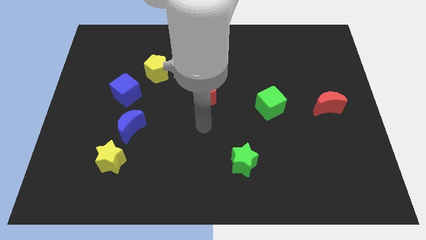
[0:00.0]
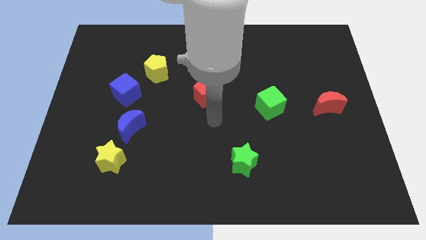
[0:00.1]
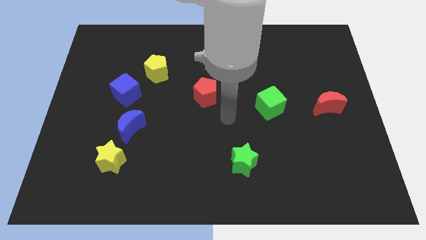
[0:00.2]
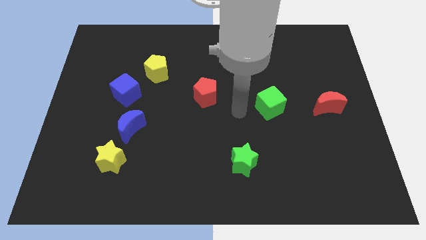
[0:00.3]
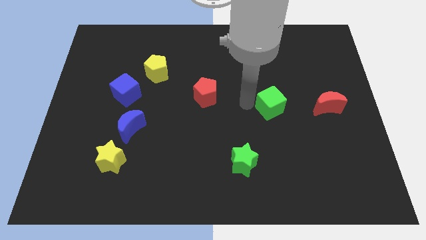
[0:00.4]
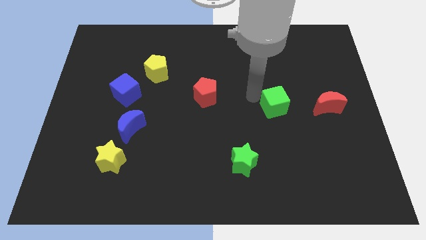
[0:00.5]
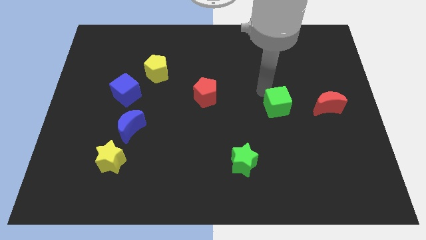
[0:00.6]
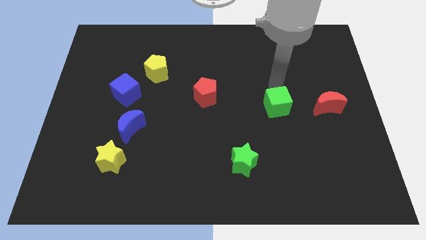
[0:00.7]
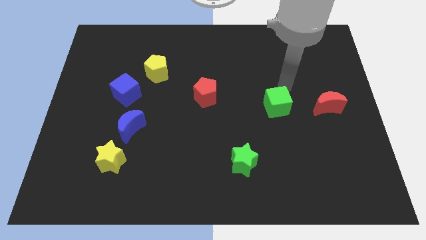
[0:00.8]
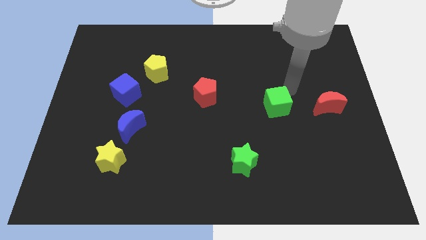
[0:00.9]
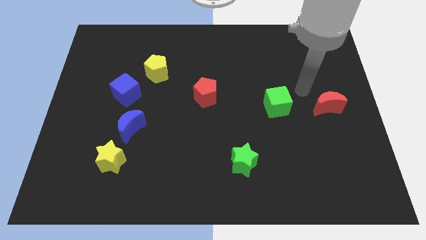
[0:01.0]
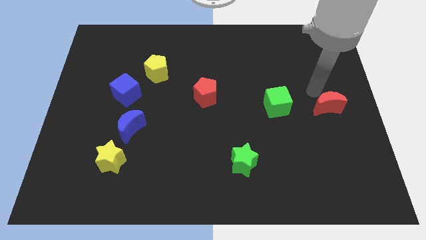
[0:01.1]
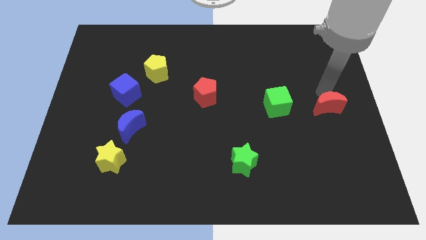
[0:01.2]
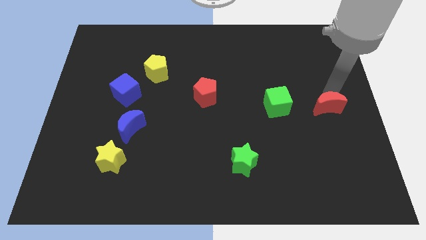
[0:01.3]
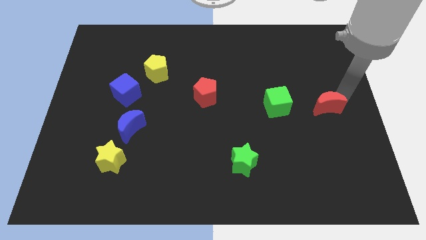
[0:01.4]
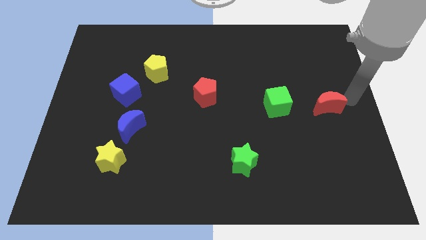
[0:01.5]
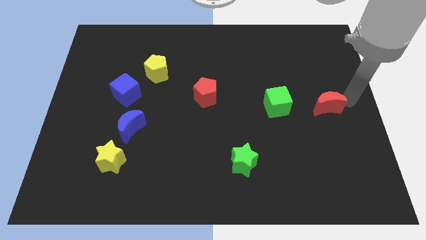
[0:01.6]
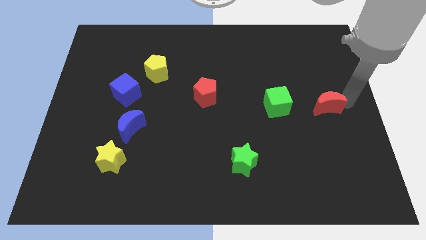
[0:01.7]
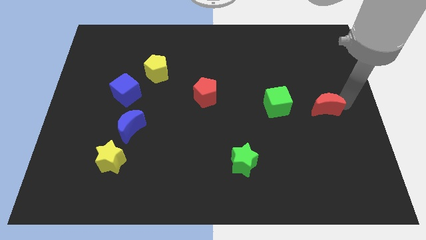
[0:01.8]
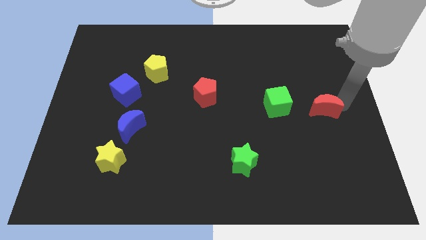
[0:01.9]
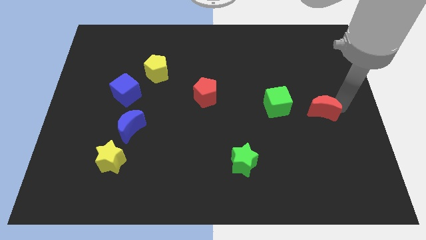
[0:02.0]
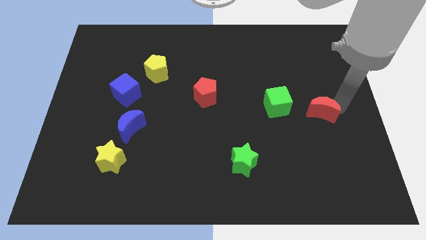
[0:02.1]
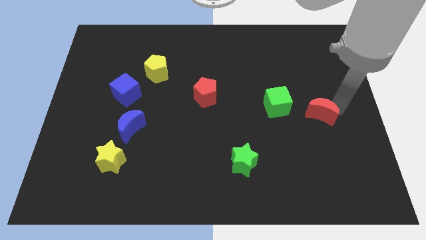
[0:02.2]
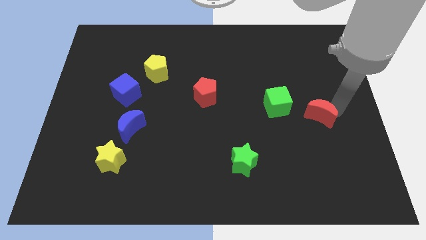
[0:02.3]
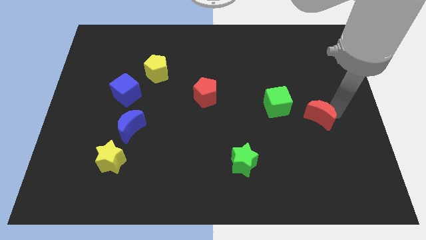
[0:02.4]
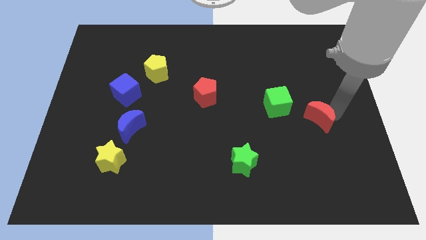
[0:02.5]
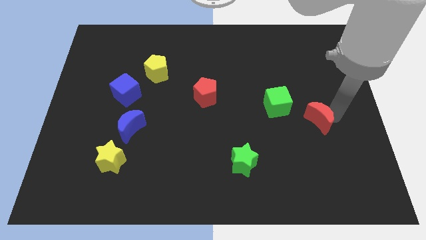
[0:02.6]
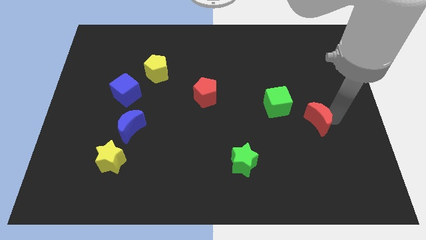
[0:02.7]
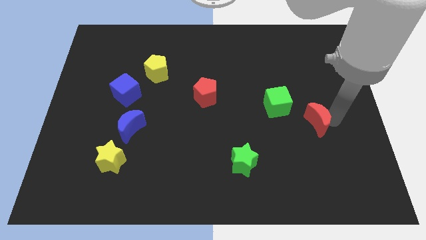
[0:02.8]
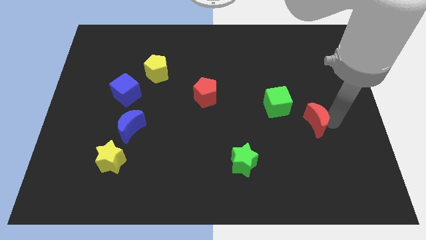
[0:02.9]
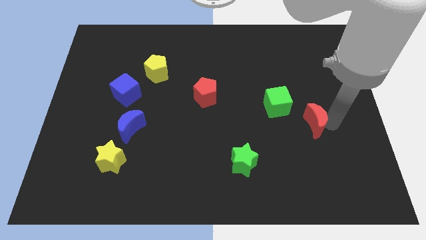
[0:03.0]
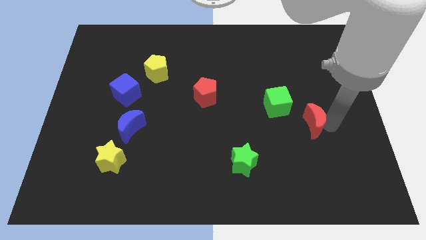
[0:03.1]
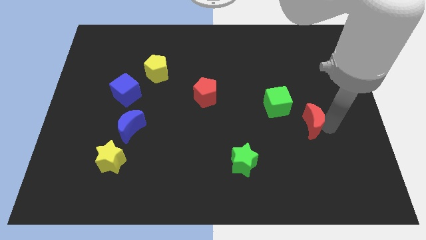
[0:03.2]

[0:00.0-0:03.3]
slide the red moon a bit down and to the left

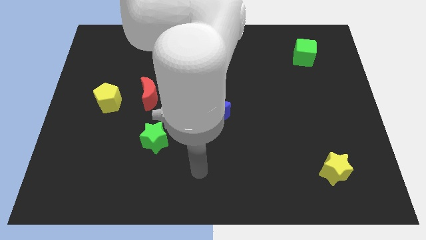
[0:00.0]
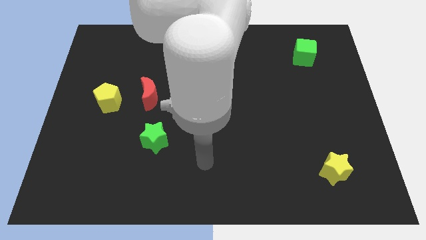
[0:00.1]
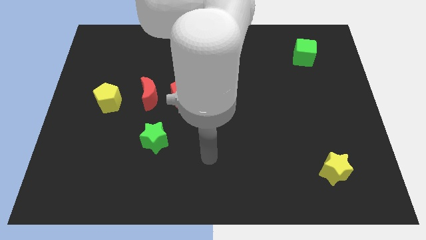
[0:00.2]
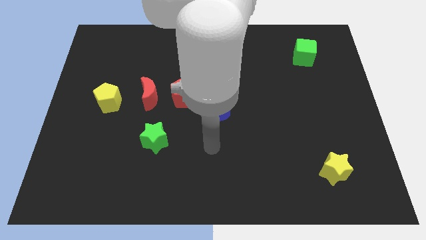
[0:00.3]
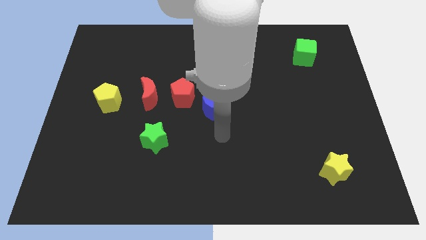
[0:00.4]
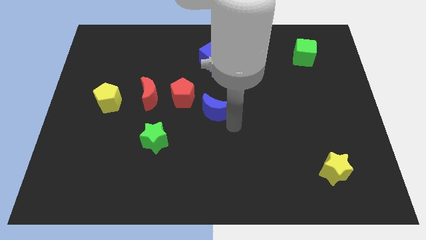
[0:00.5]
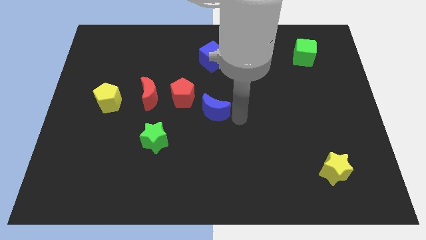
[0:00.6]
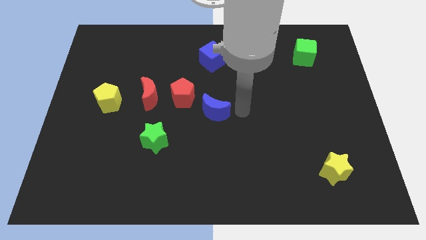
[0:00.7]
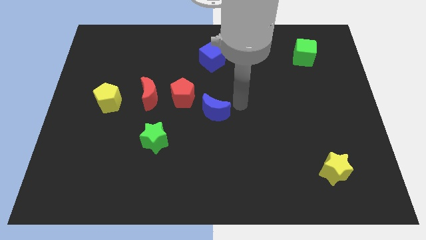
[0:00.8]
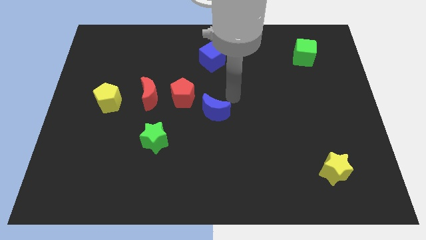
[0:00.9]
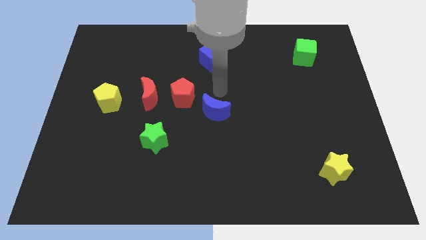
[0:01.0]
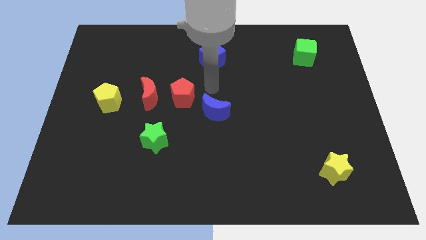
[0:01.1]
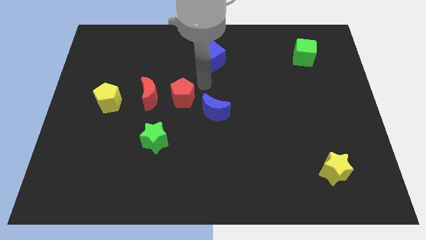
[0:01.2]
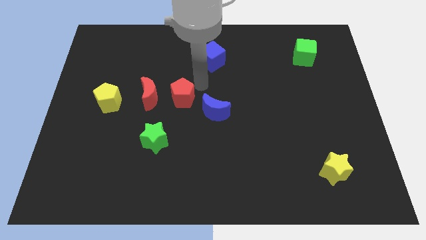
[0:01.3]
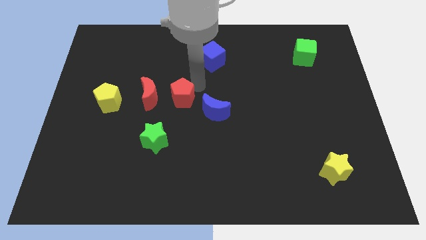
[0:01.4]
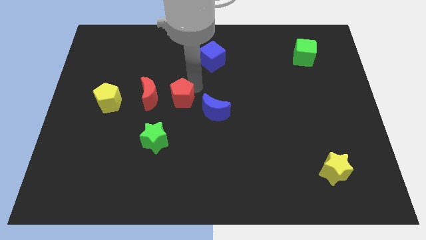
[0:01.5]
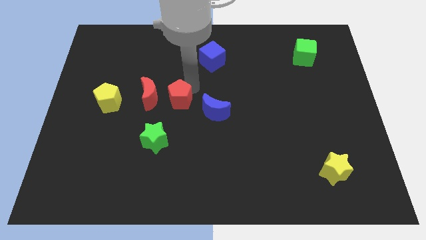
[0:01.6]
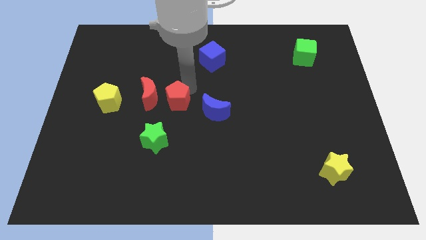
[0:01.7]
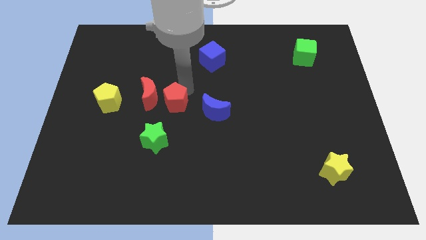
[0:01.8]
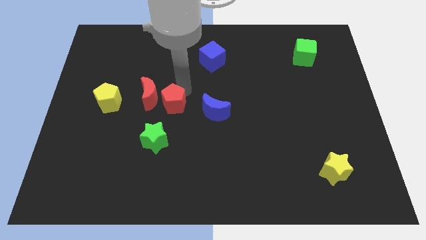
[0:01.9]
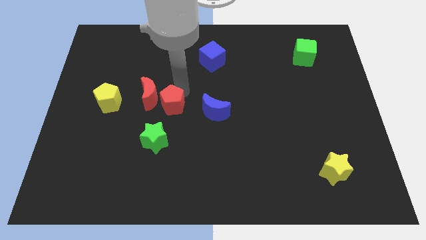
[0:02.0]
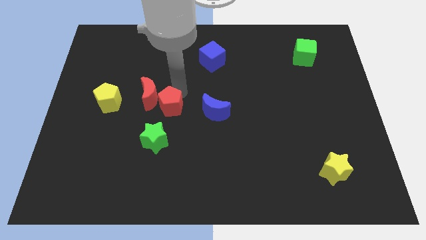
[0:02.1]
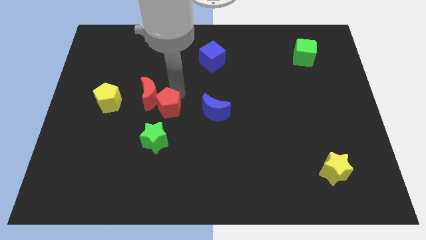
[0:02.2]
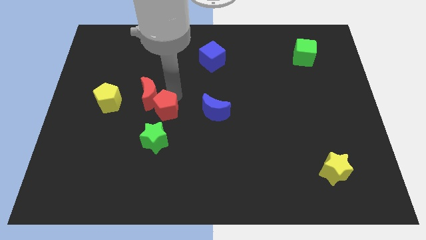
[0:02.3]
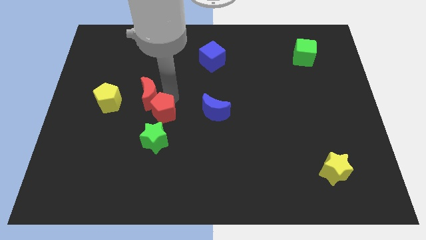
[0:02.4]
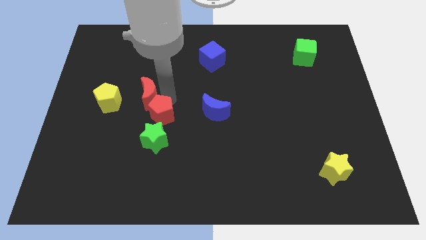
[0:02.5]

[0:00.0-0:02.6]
push the red pentagon a little bit downwards and to the left

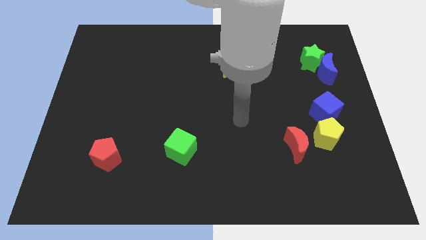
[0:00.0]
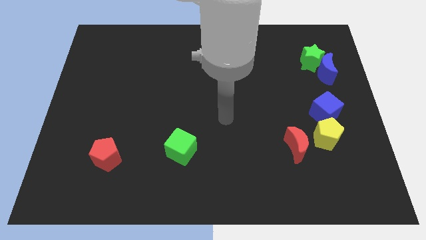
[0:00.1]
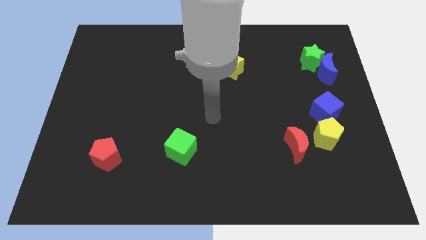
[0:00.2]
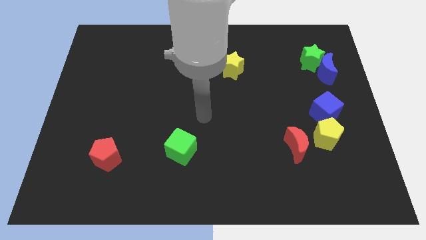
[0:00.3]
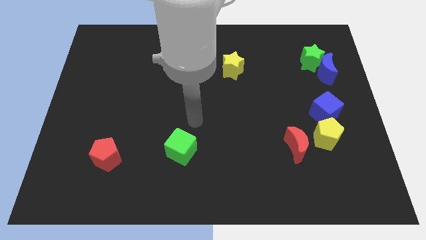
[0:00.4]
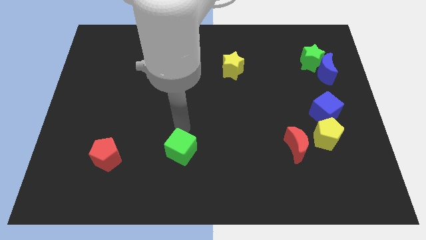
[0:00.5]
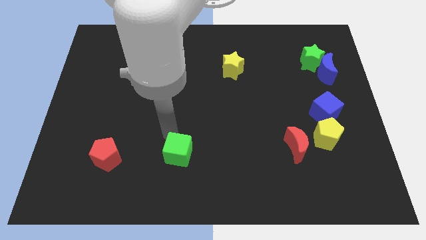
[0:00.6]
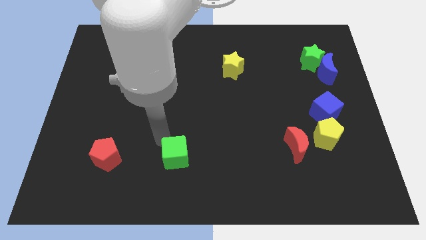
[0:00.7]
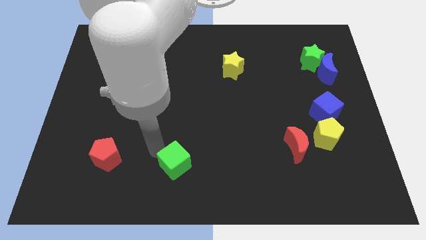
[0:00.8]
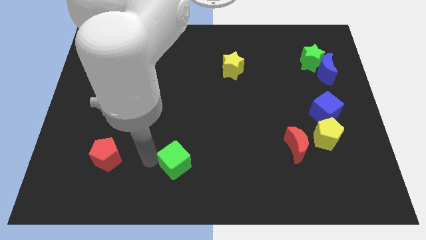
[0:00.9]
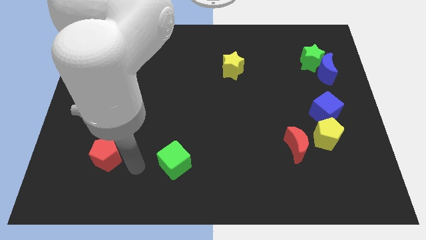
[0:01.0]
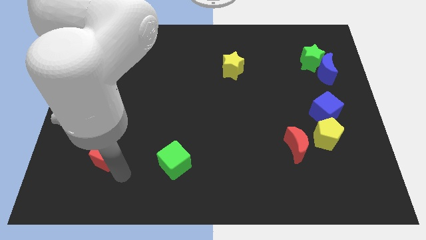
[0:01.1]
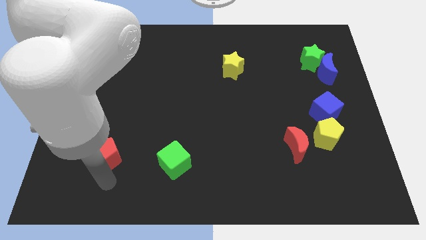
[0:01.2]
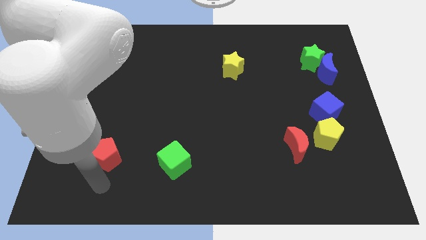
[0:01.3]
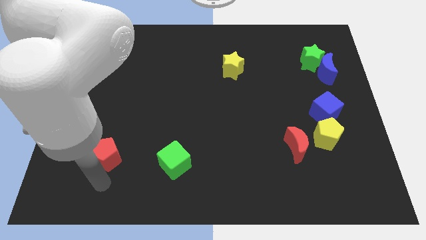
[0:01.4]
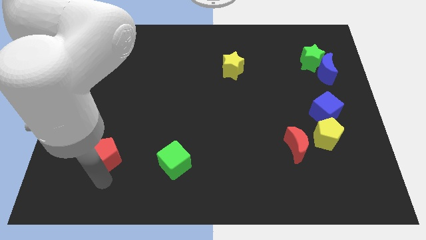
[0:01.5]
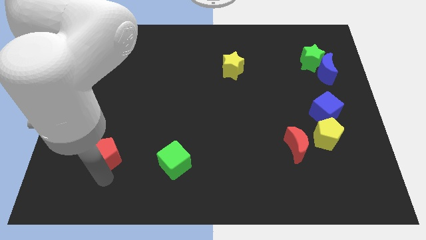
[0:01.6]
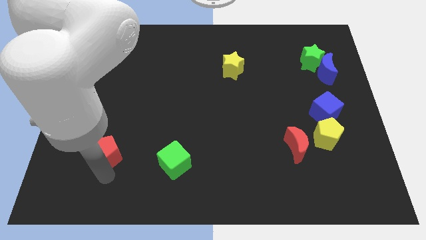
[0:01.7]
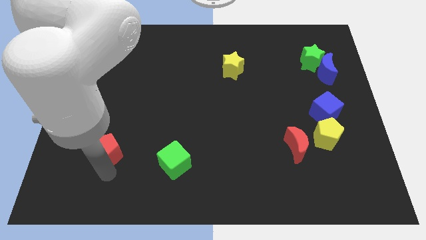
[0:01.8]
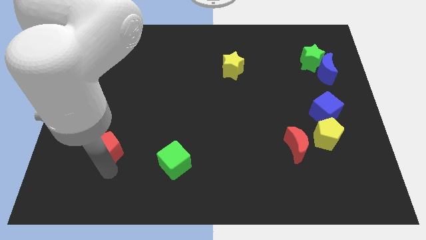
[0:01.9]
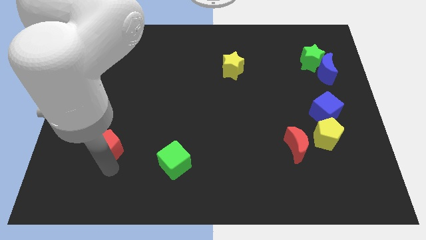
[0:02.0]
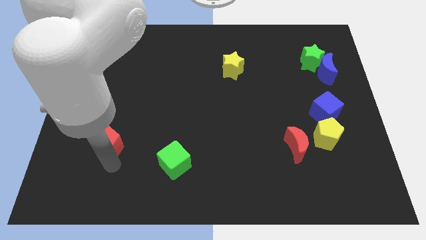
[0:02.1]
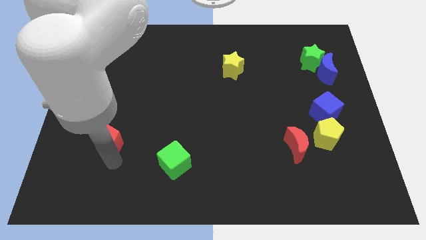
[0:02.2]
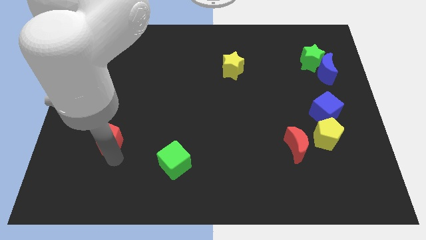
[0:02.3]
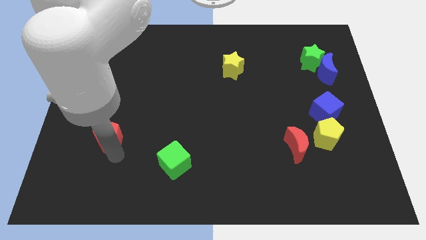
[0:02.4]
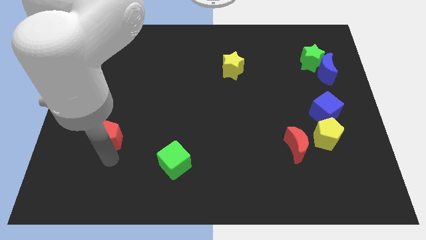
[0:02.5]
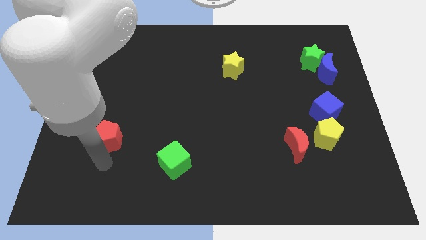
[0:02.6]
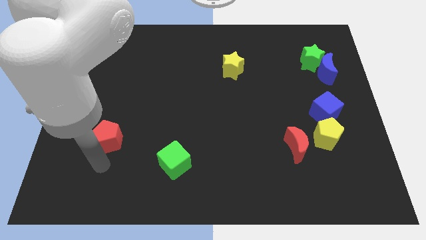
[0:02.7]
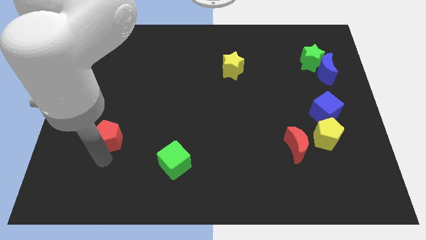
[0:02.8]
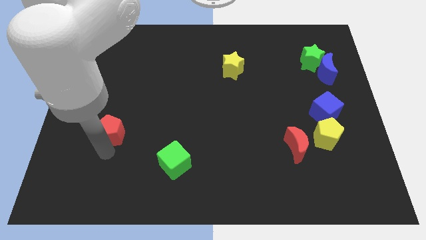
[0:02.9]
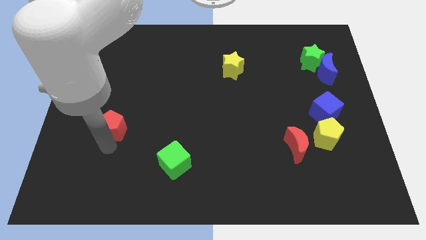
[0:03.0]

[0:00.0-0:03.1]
move the red pentagon upwards slightly
